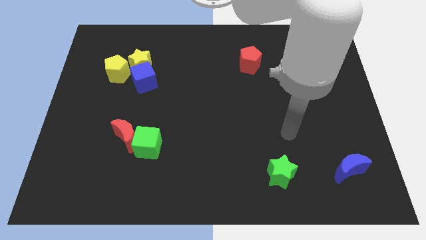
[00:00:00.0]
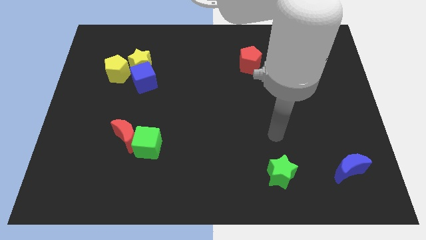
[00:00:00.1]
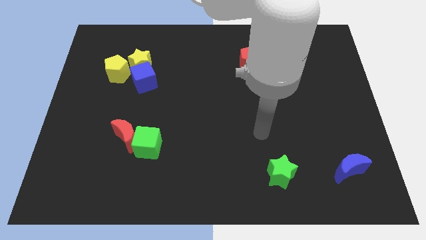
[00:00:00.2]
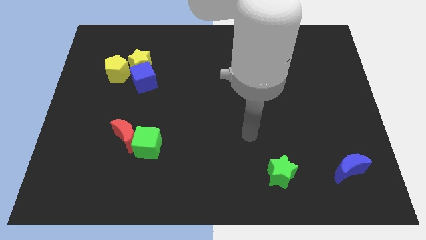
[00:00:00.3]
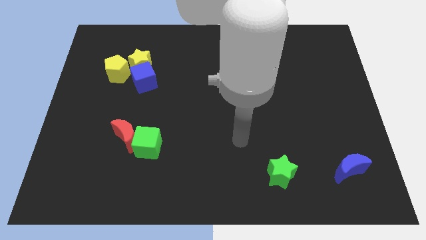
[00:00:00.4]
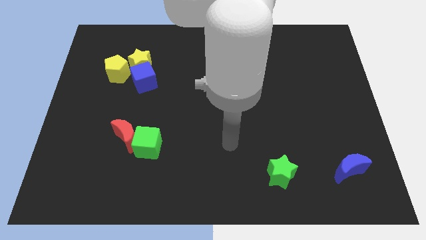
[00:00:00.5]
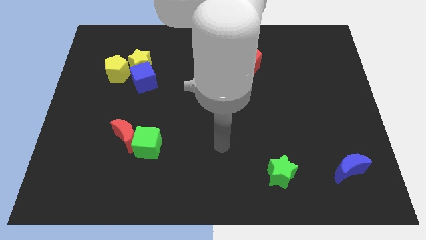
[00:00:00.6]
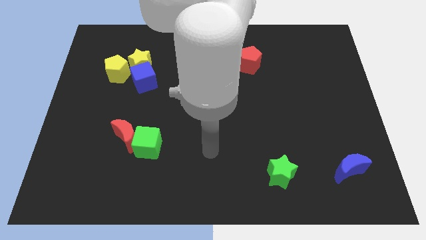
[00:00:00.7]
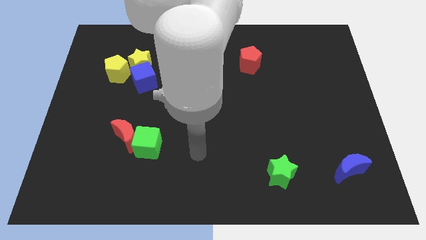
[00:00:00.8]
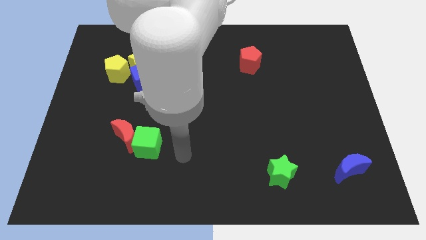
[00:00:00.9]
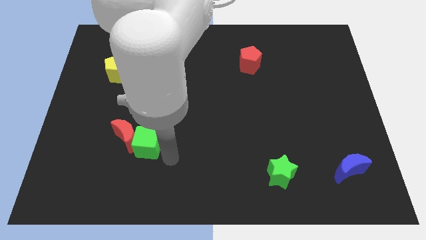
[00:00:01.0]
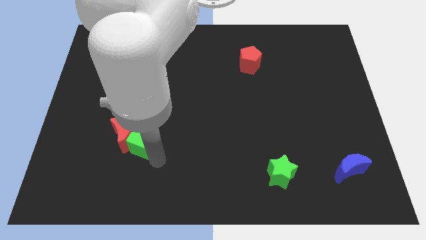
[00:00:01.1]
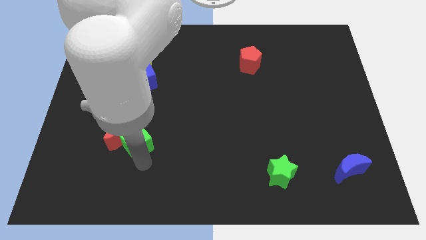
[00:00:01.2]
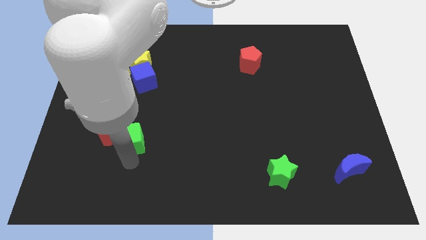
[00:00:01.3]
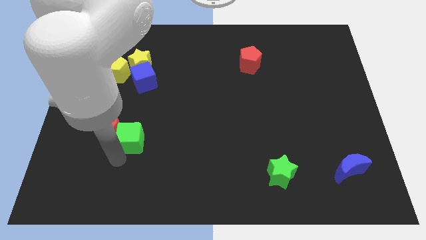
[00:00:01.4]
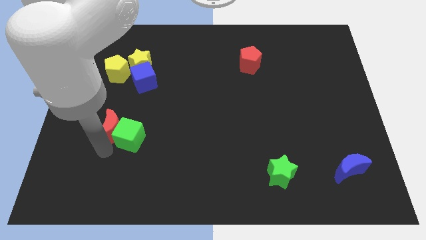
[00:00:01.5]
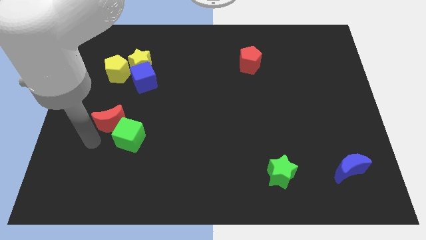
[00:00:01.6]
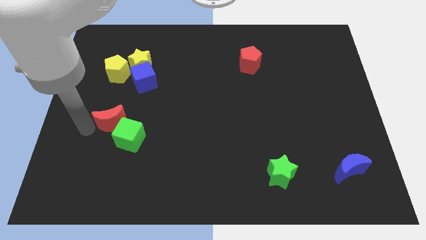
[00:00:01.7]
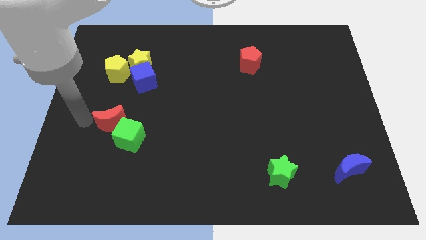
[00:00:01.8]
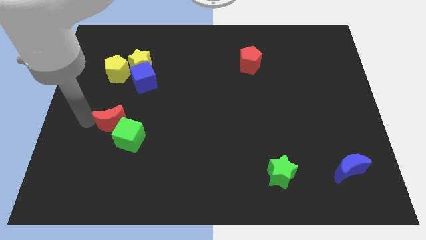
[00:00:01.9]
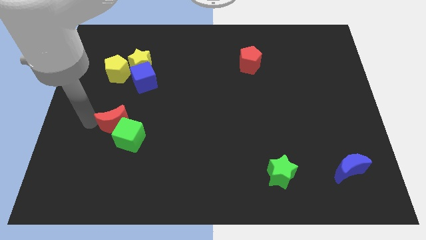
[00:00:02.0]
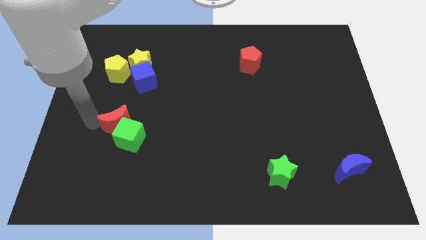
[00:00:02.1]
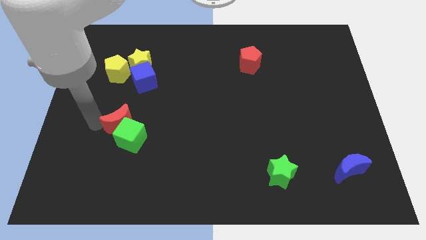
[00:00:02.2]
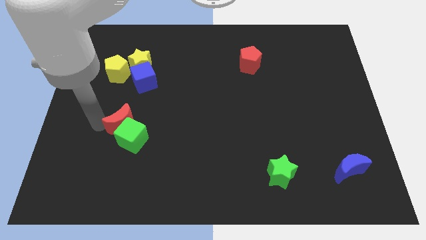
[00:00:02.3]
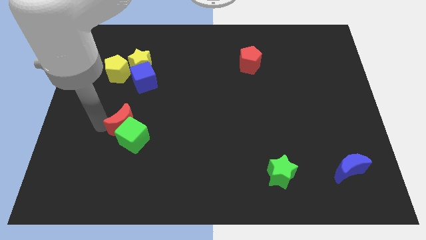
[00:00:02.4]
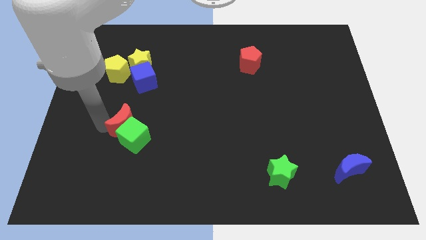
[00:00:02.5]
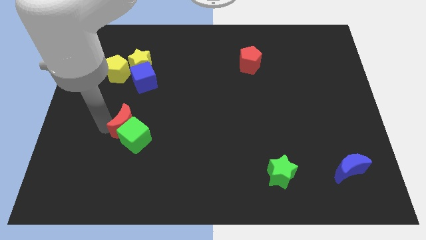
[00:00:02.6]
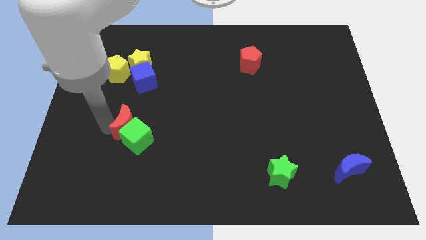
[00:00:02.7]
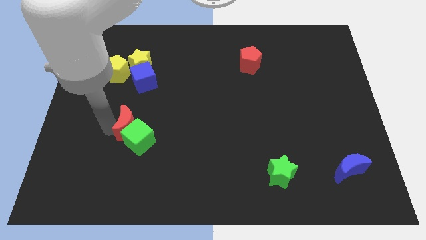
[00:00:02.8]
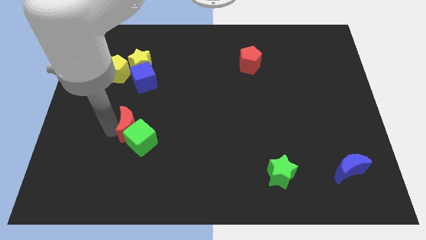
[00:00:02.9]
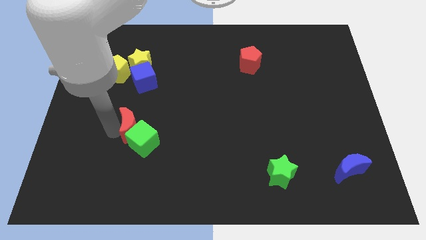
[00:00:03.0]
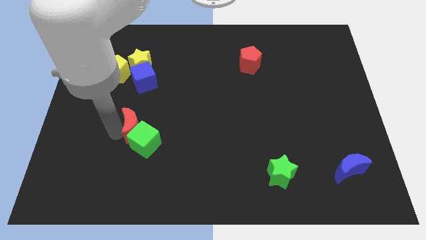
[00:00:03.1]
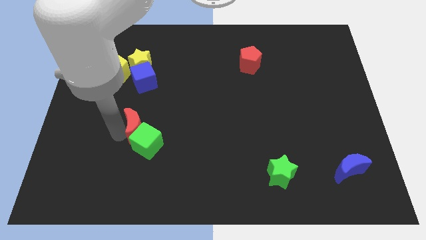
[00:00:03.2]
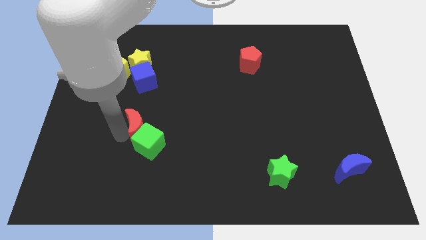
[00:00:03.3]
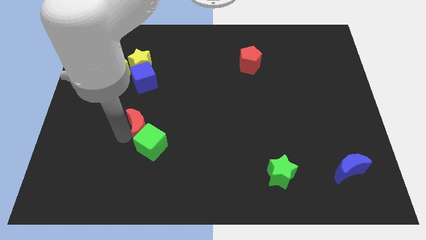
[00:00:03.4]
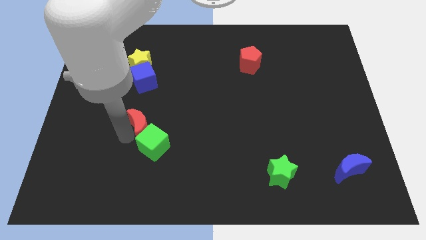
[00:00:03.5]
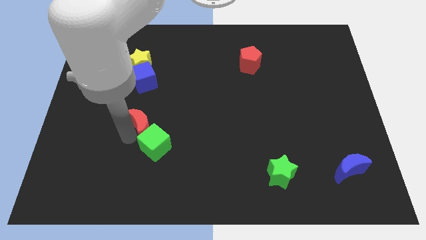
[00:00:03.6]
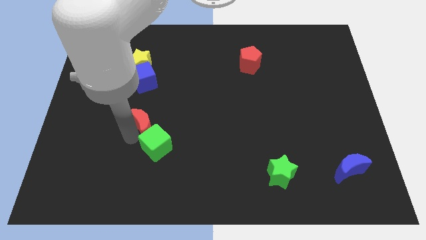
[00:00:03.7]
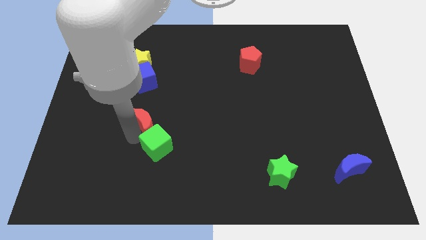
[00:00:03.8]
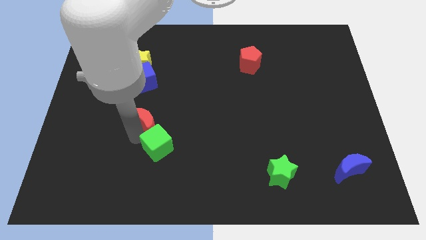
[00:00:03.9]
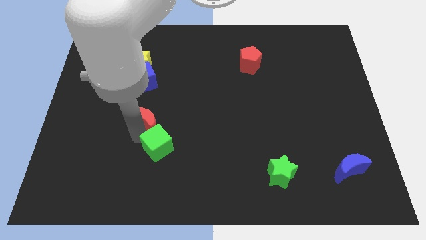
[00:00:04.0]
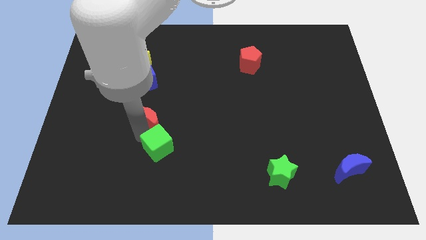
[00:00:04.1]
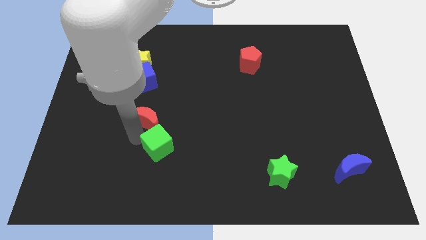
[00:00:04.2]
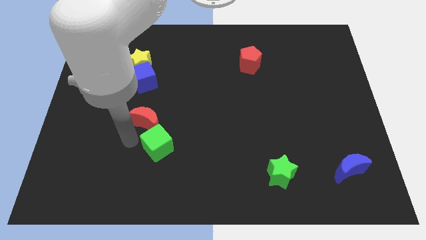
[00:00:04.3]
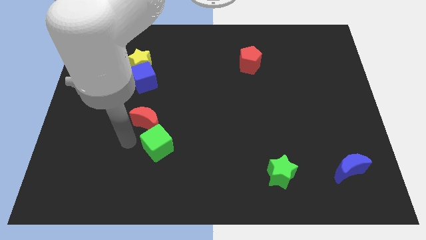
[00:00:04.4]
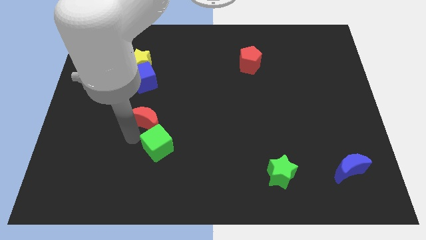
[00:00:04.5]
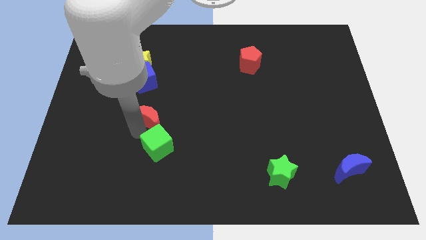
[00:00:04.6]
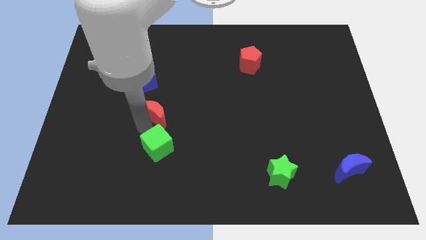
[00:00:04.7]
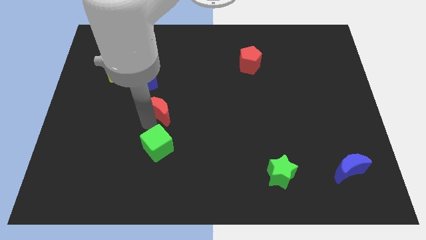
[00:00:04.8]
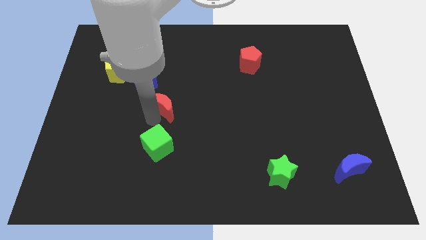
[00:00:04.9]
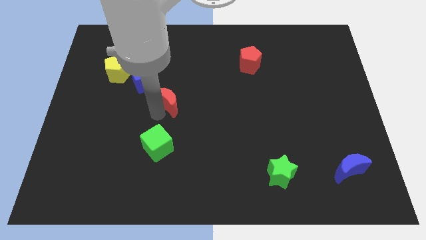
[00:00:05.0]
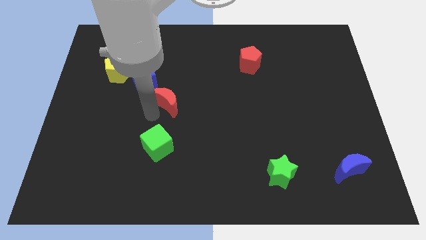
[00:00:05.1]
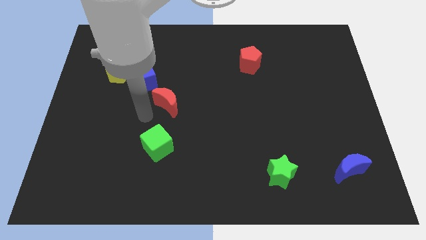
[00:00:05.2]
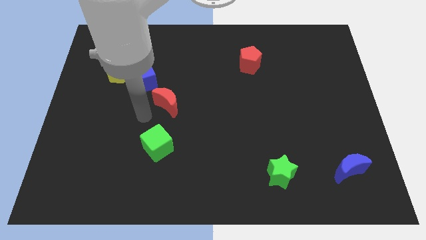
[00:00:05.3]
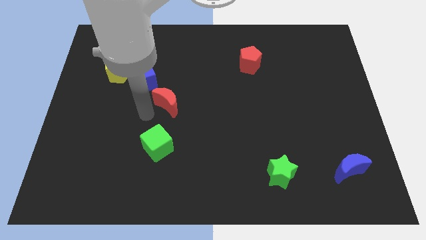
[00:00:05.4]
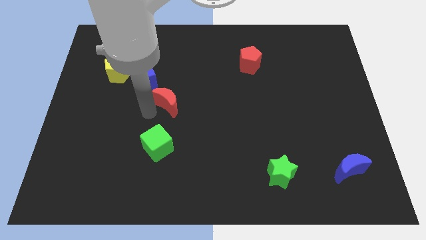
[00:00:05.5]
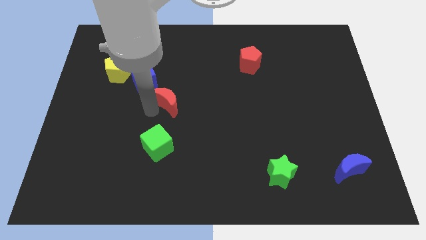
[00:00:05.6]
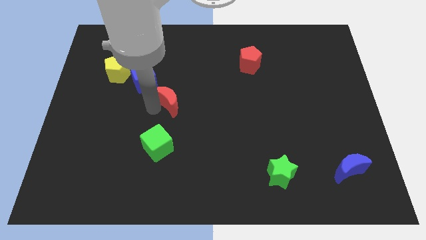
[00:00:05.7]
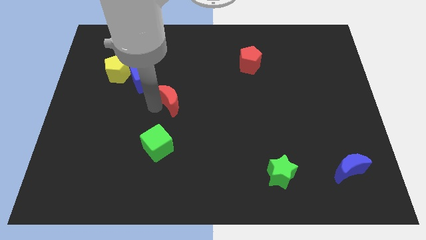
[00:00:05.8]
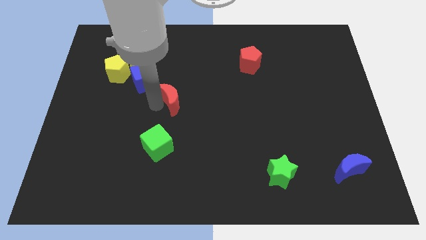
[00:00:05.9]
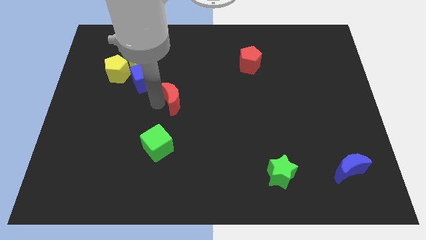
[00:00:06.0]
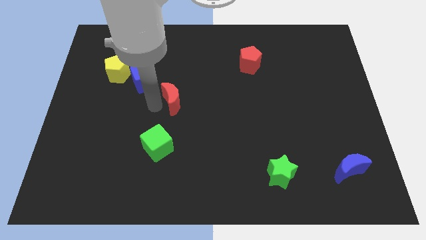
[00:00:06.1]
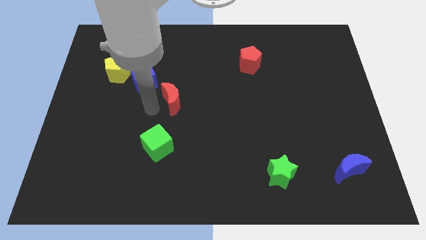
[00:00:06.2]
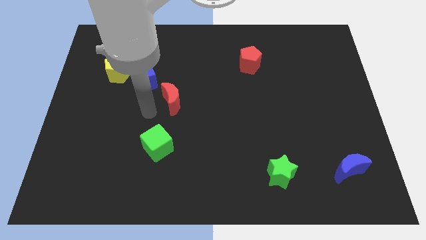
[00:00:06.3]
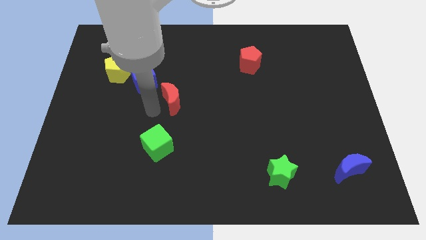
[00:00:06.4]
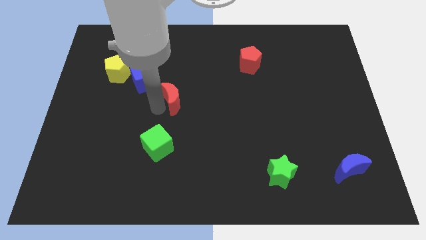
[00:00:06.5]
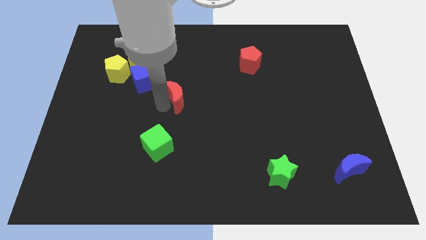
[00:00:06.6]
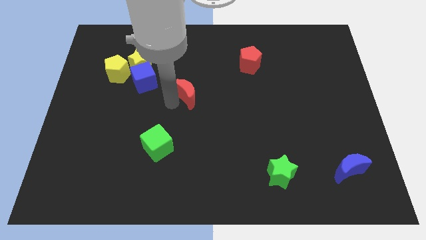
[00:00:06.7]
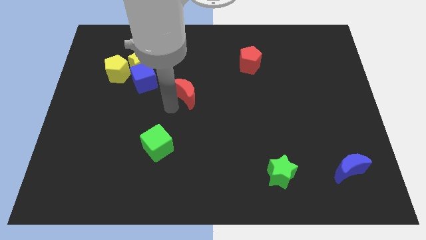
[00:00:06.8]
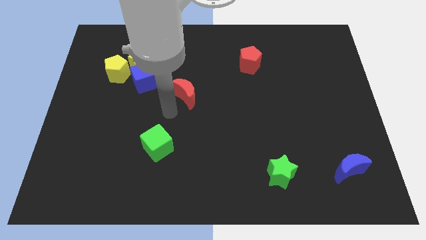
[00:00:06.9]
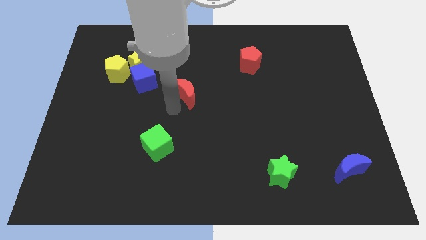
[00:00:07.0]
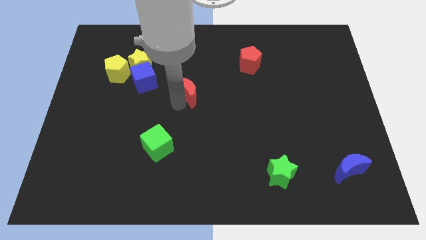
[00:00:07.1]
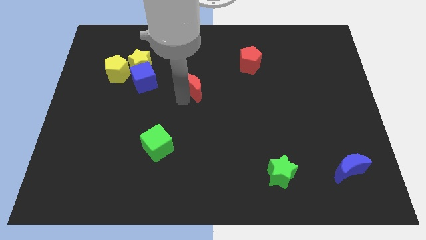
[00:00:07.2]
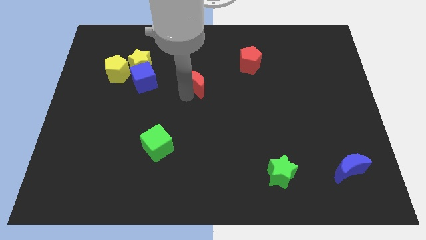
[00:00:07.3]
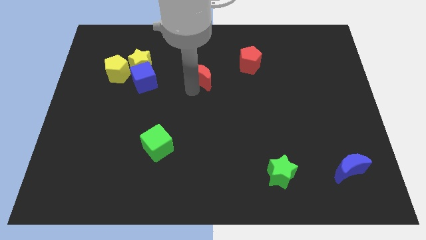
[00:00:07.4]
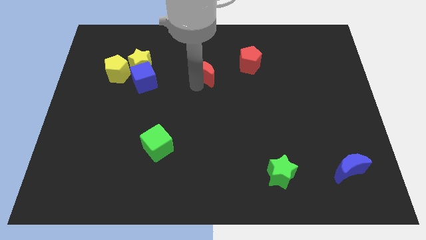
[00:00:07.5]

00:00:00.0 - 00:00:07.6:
put the red moon just left of the red pentagon

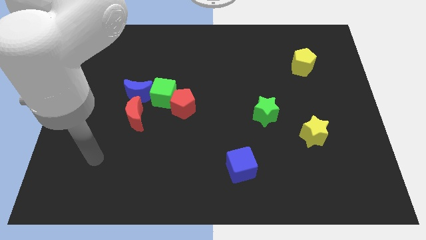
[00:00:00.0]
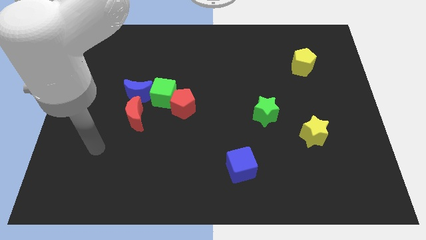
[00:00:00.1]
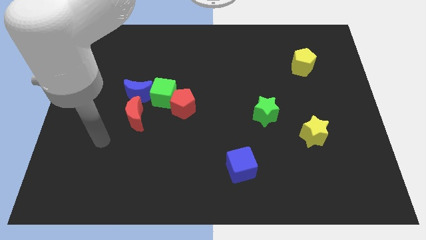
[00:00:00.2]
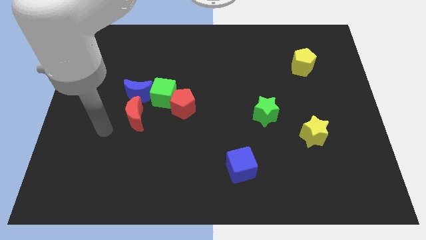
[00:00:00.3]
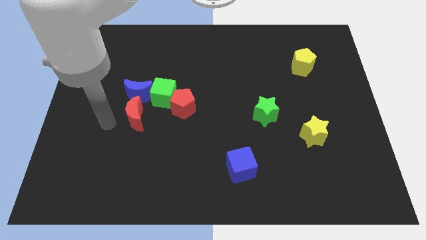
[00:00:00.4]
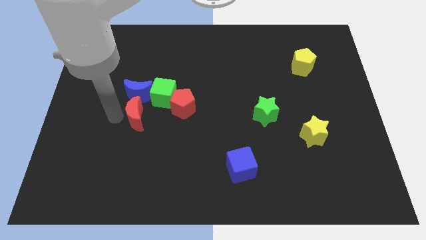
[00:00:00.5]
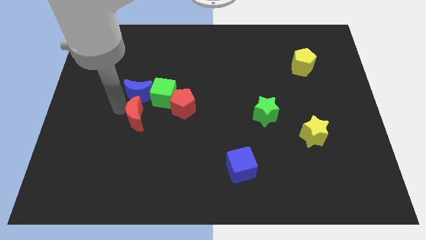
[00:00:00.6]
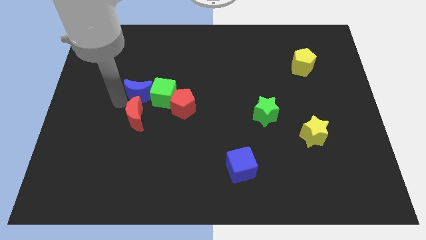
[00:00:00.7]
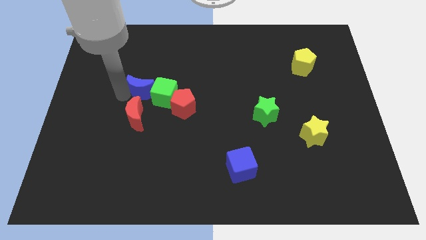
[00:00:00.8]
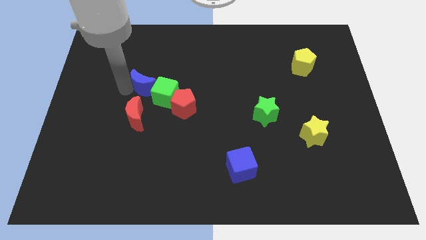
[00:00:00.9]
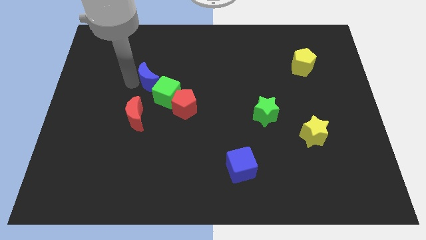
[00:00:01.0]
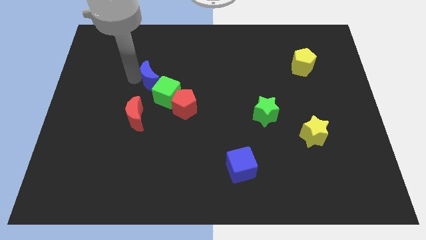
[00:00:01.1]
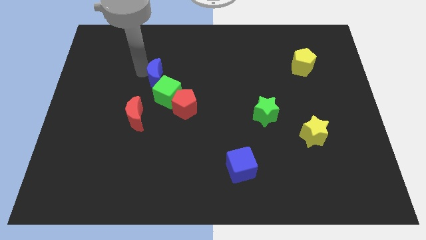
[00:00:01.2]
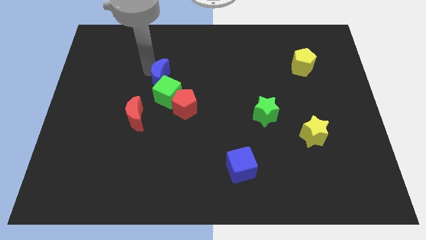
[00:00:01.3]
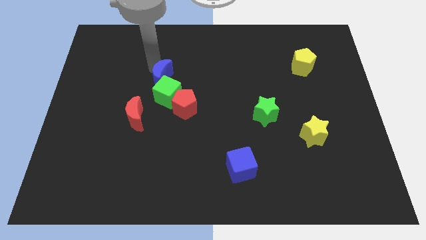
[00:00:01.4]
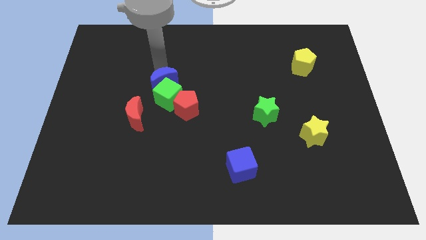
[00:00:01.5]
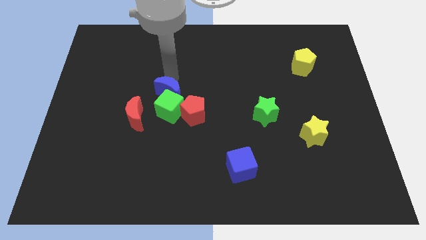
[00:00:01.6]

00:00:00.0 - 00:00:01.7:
move the green cube to the bottom left of the red pentagon
